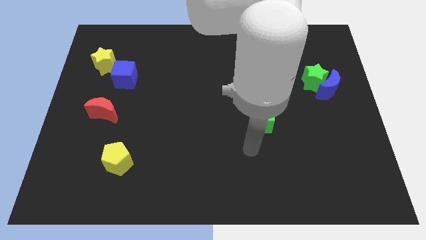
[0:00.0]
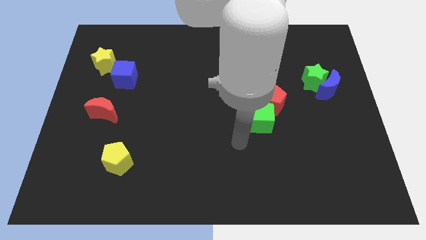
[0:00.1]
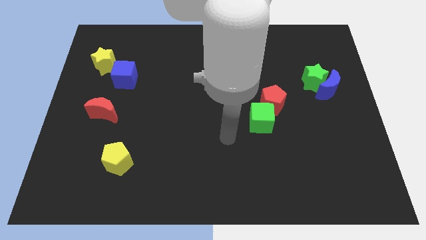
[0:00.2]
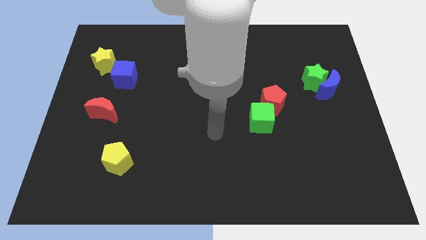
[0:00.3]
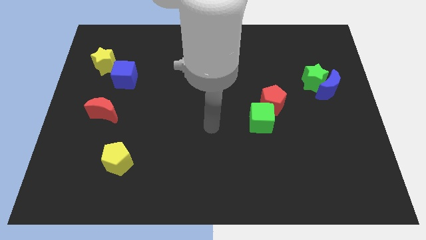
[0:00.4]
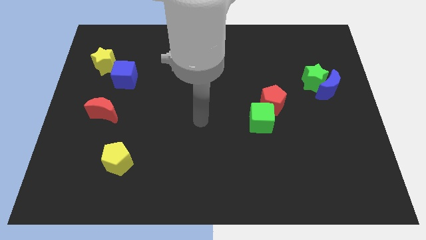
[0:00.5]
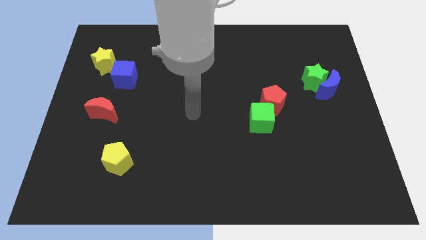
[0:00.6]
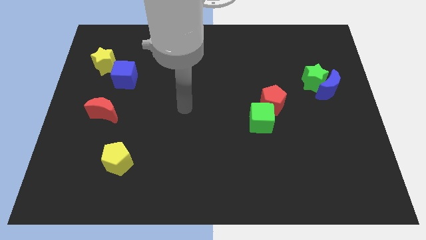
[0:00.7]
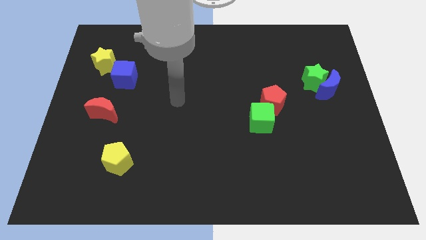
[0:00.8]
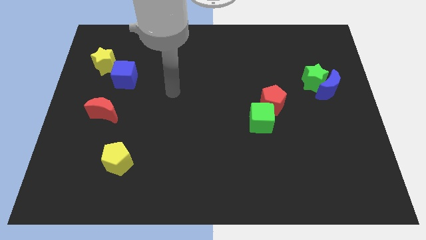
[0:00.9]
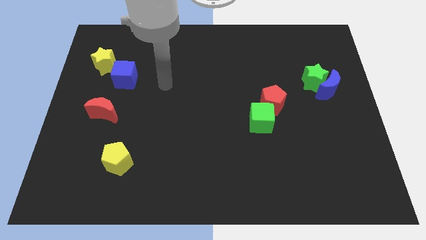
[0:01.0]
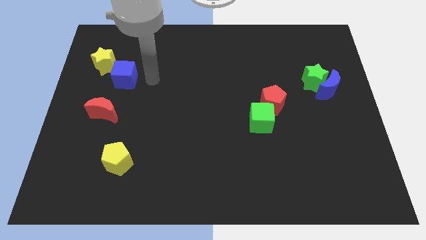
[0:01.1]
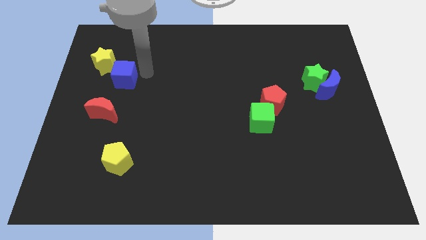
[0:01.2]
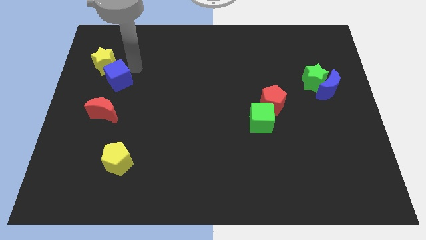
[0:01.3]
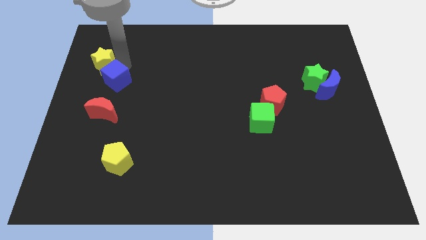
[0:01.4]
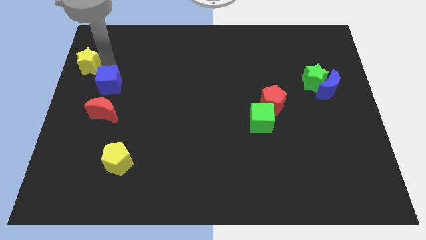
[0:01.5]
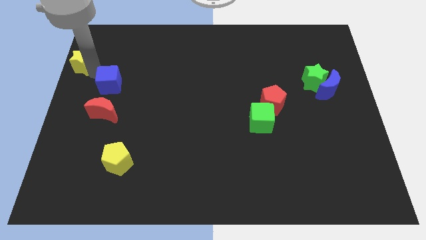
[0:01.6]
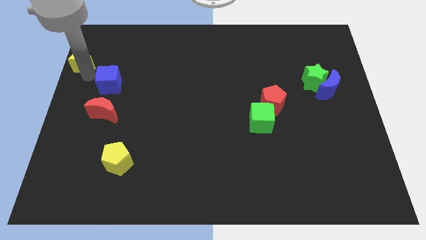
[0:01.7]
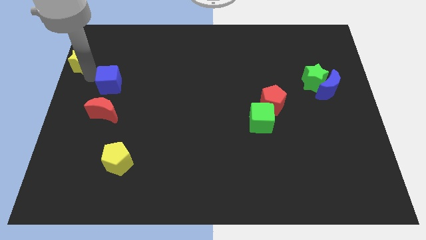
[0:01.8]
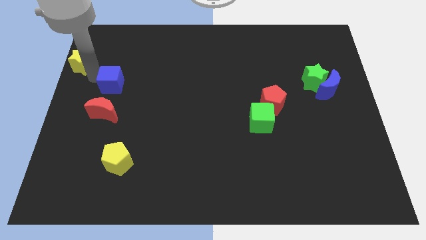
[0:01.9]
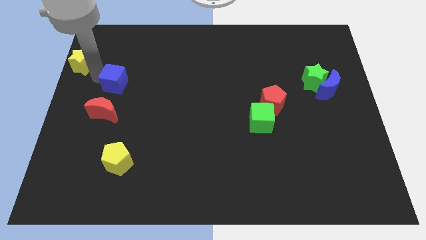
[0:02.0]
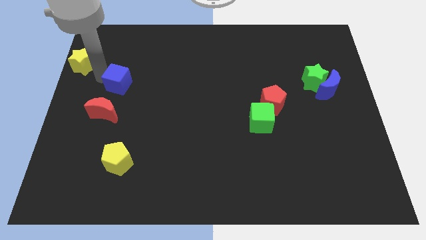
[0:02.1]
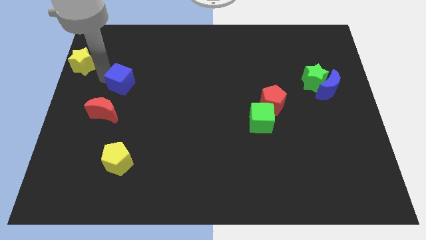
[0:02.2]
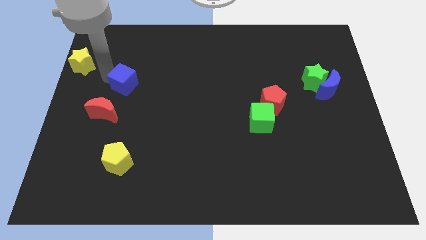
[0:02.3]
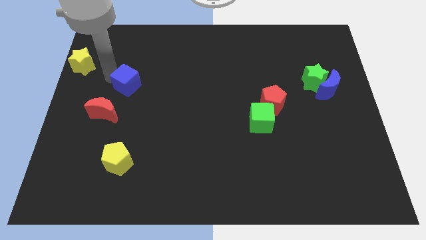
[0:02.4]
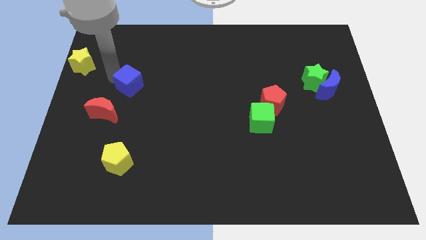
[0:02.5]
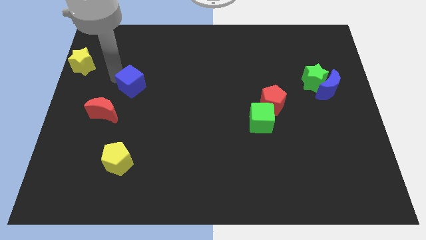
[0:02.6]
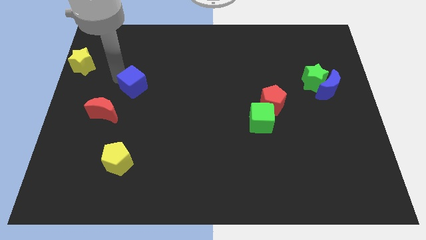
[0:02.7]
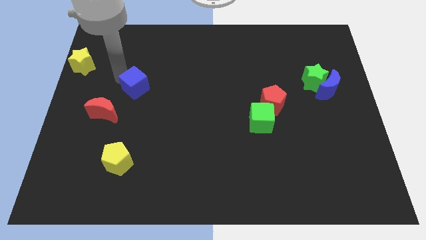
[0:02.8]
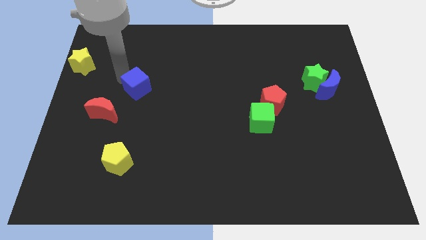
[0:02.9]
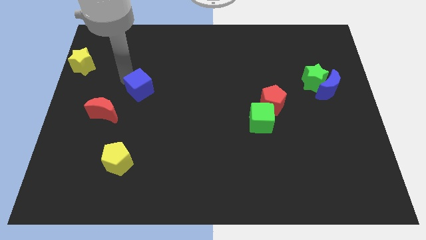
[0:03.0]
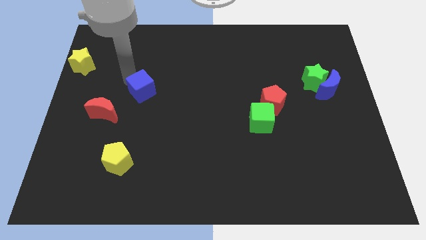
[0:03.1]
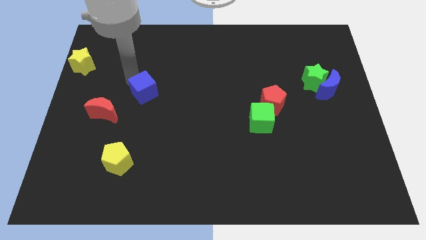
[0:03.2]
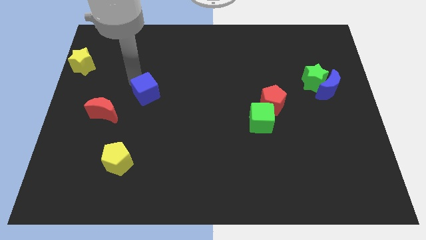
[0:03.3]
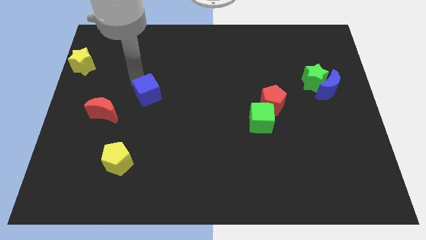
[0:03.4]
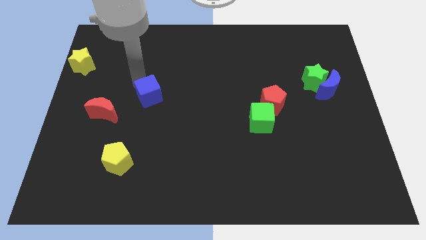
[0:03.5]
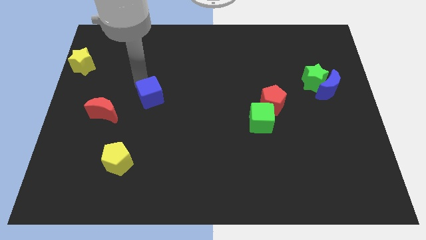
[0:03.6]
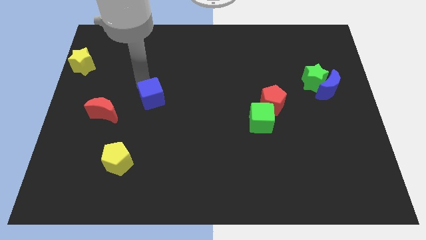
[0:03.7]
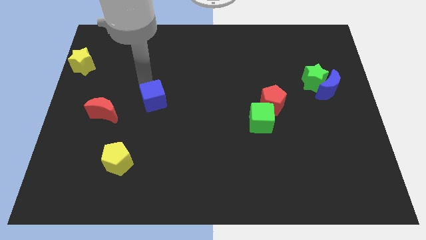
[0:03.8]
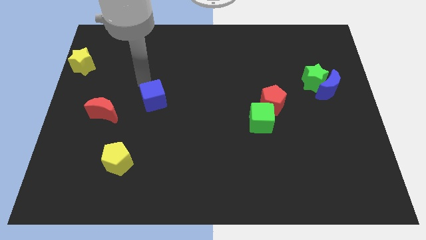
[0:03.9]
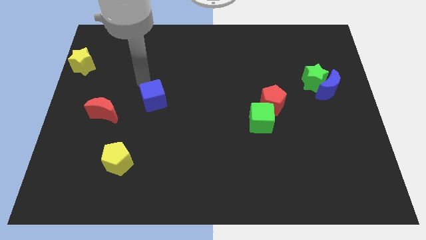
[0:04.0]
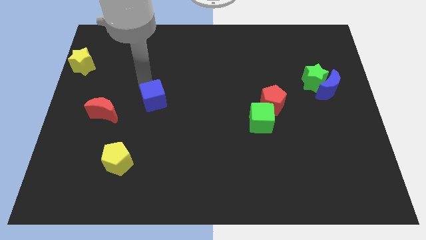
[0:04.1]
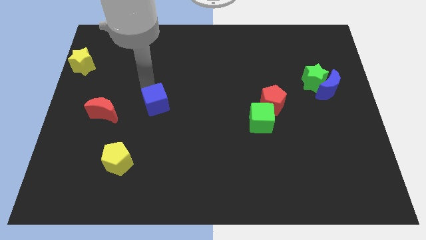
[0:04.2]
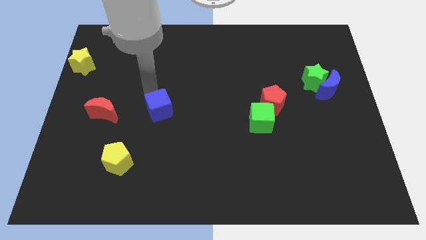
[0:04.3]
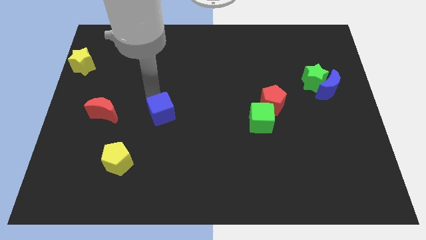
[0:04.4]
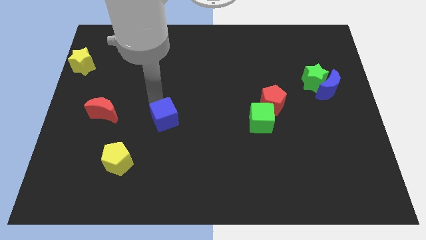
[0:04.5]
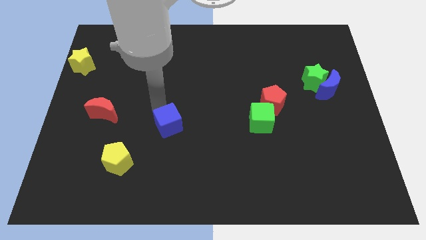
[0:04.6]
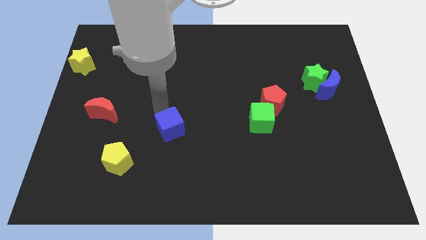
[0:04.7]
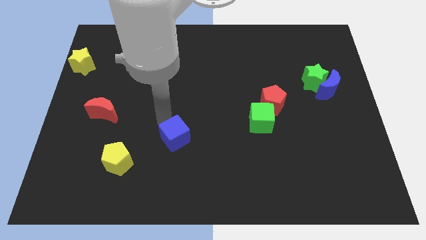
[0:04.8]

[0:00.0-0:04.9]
push the blue cube diagonally down and to the right

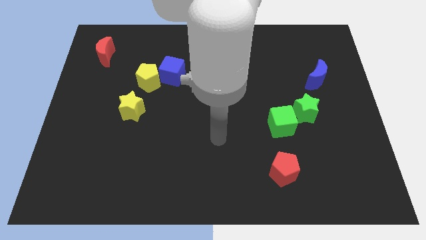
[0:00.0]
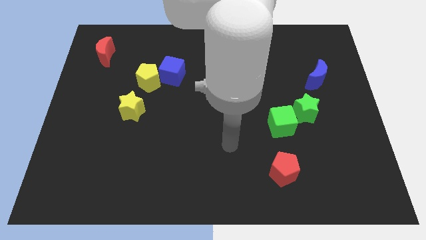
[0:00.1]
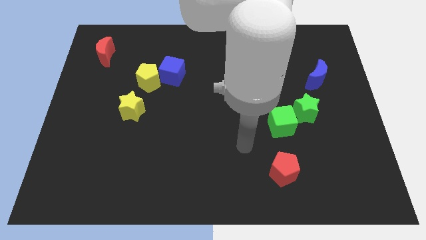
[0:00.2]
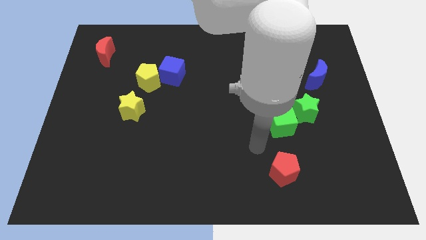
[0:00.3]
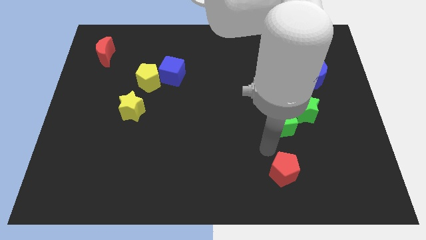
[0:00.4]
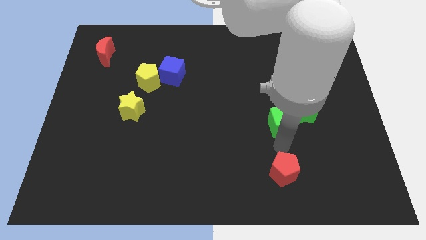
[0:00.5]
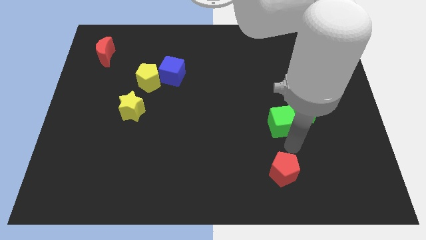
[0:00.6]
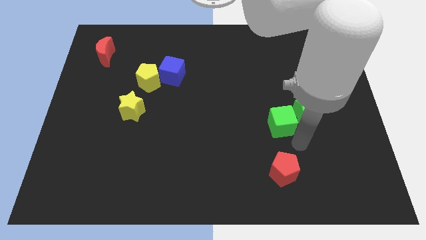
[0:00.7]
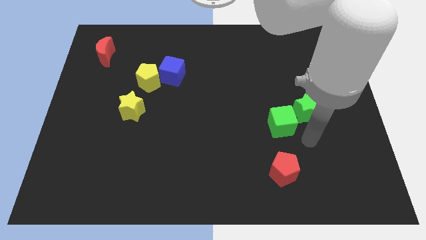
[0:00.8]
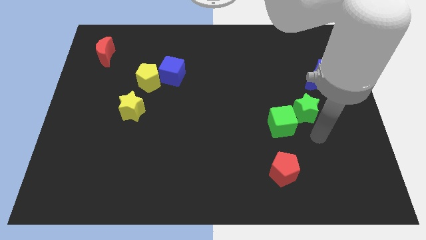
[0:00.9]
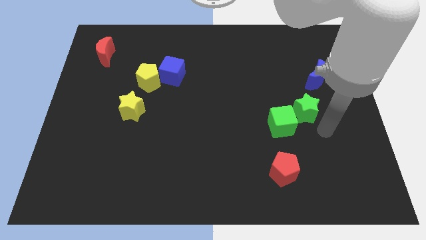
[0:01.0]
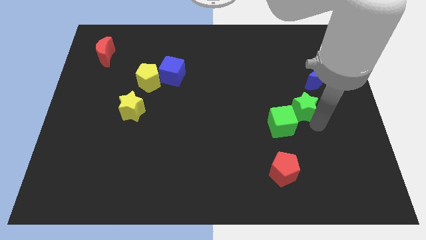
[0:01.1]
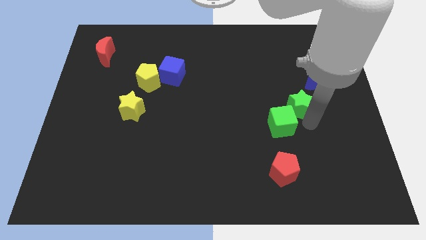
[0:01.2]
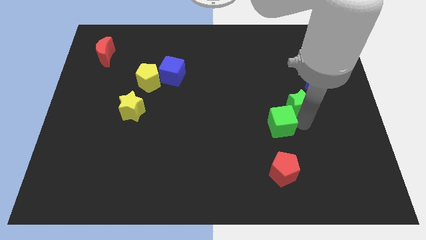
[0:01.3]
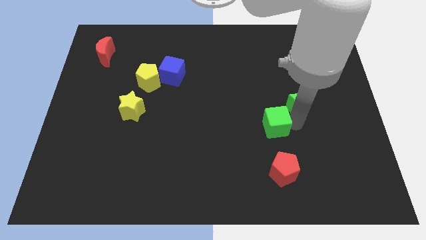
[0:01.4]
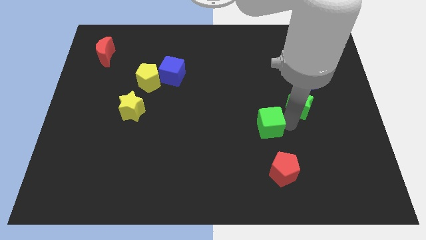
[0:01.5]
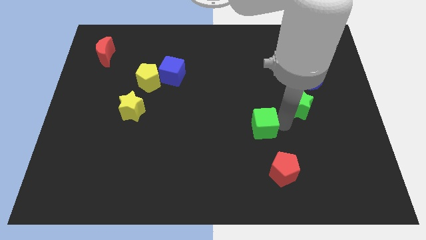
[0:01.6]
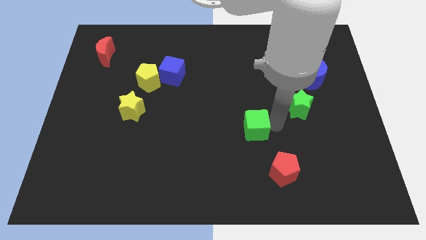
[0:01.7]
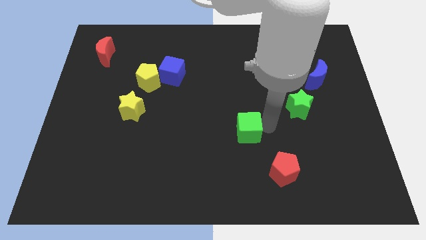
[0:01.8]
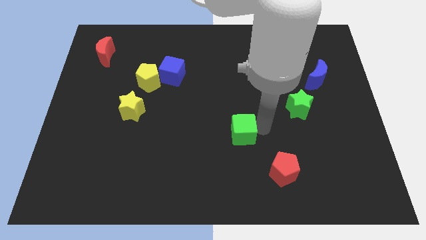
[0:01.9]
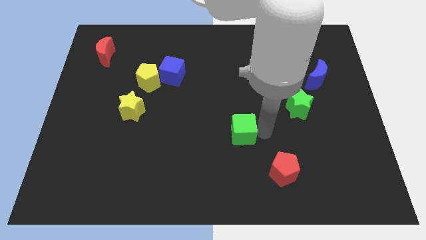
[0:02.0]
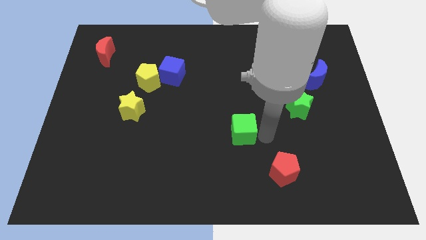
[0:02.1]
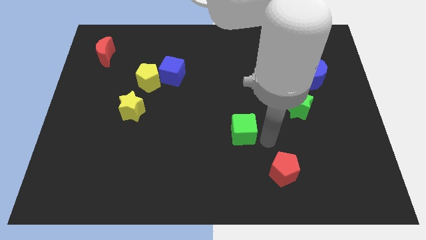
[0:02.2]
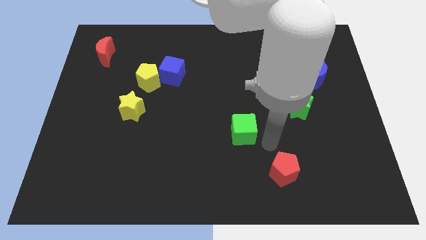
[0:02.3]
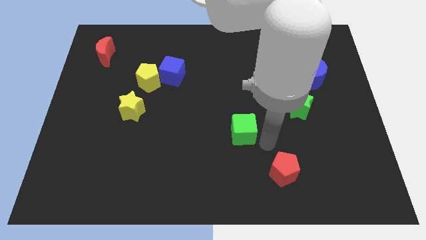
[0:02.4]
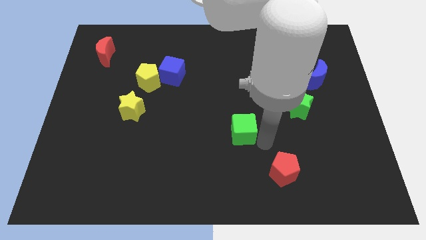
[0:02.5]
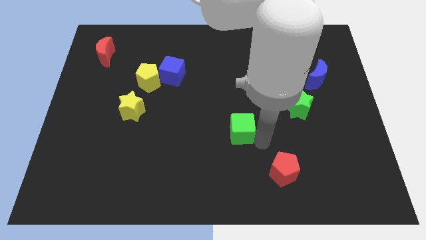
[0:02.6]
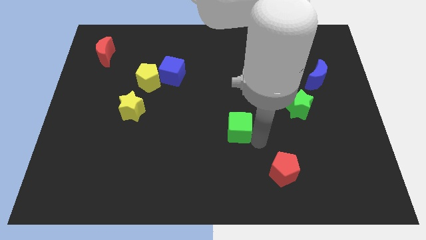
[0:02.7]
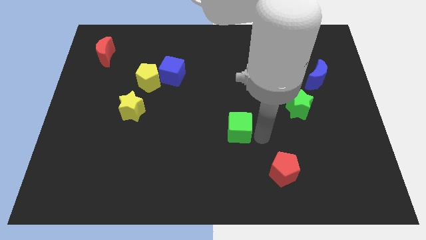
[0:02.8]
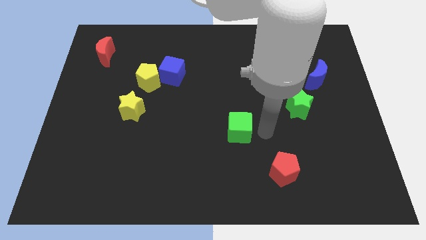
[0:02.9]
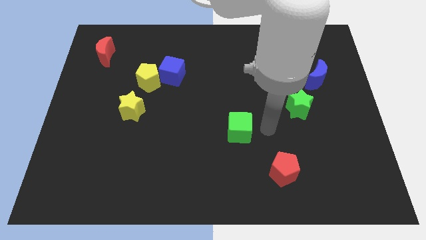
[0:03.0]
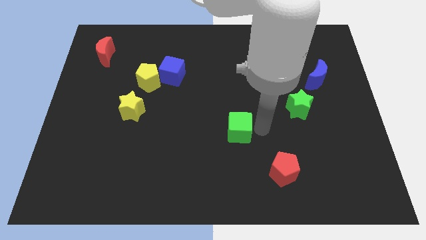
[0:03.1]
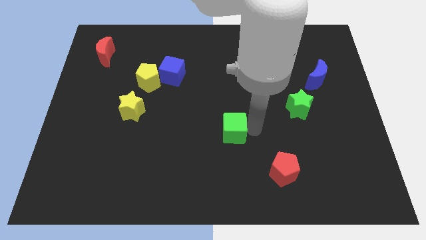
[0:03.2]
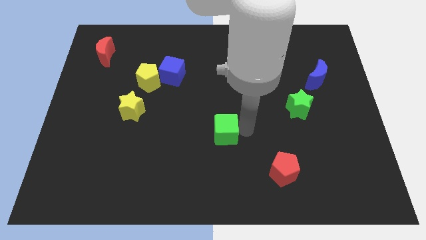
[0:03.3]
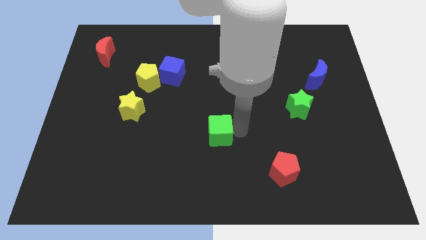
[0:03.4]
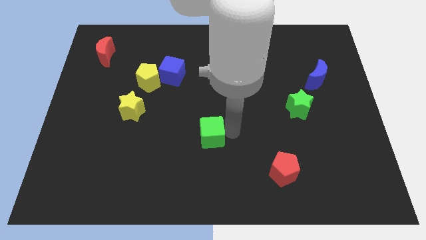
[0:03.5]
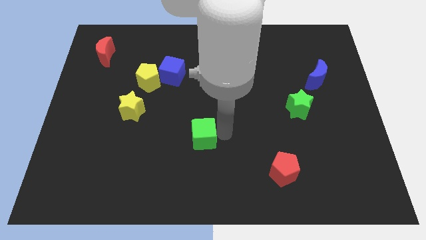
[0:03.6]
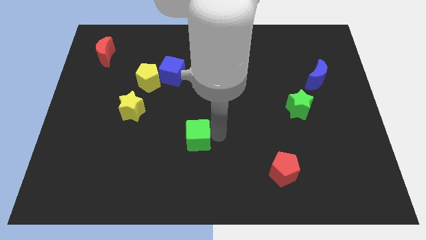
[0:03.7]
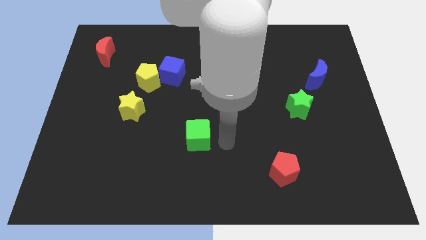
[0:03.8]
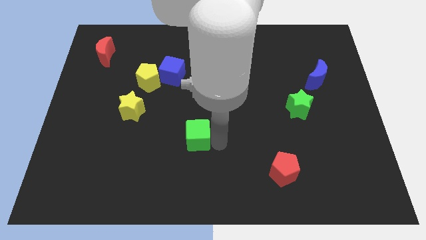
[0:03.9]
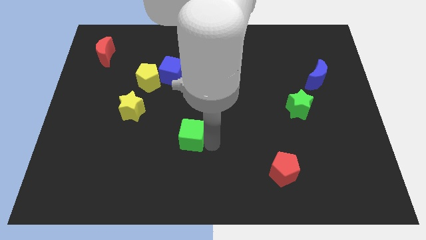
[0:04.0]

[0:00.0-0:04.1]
push the green cube left
